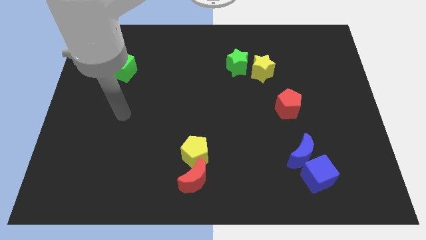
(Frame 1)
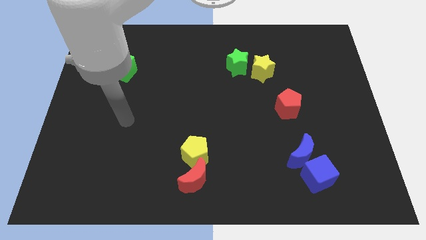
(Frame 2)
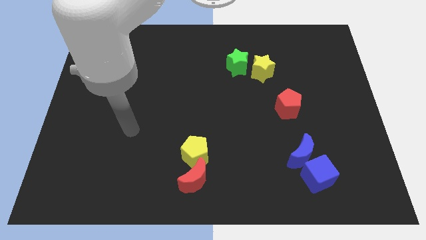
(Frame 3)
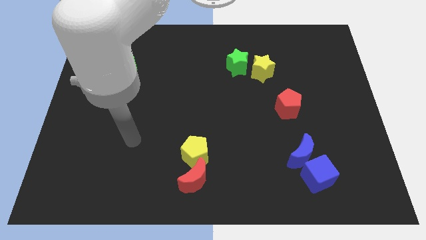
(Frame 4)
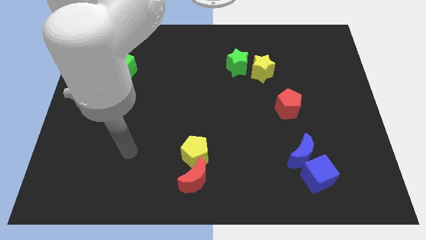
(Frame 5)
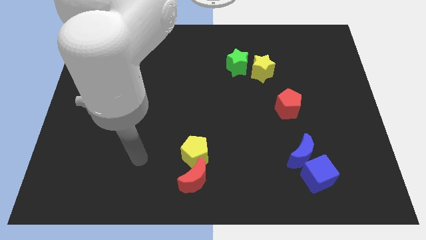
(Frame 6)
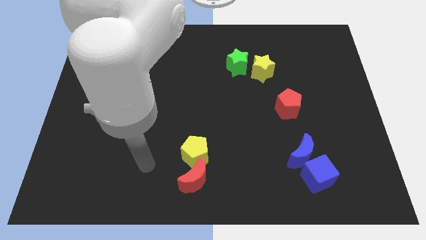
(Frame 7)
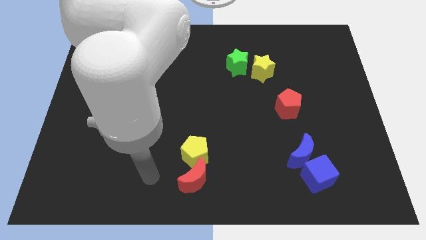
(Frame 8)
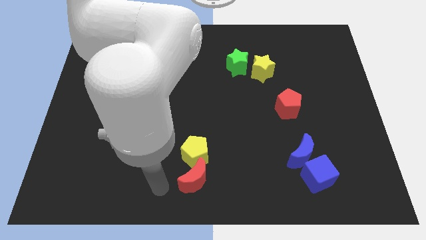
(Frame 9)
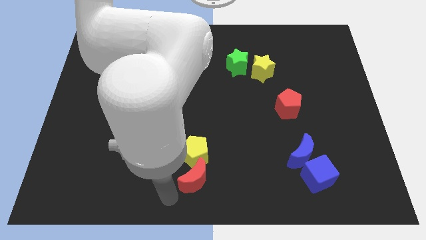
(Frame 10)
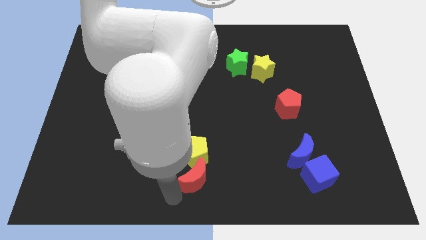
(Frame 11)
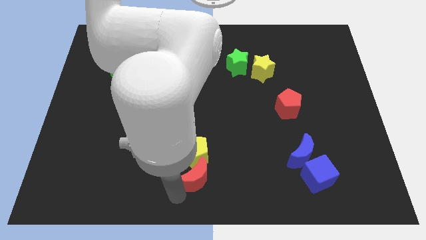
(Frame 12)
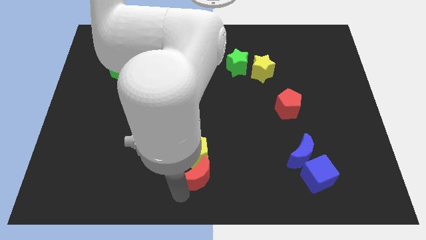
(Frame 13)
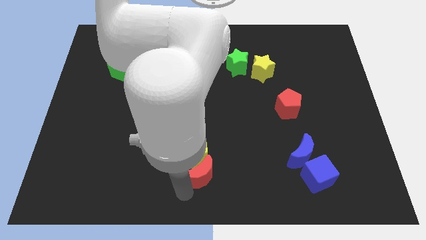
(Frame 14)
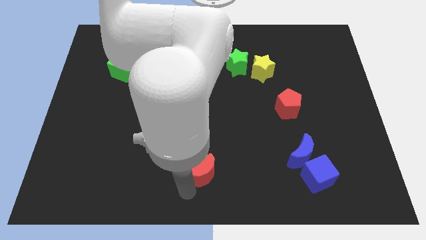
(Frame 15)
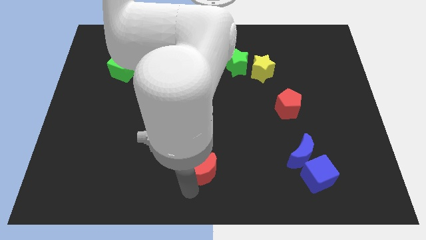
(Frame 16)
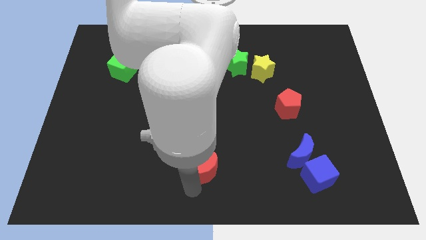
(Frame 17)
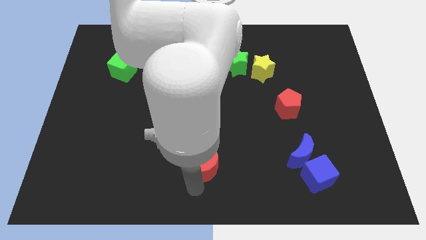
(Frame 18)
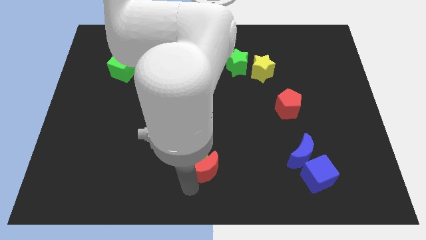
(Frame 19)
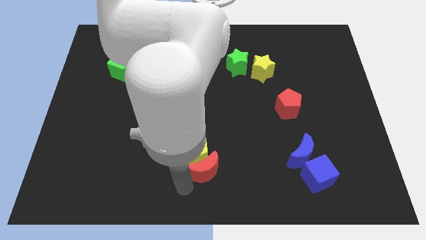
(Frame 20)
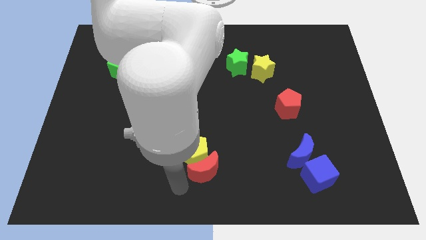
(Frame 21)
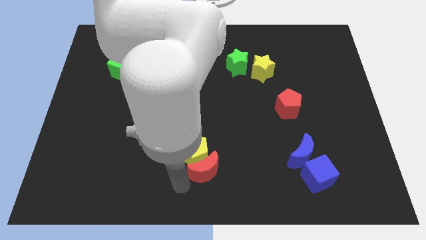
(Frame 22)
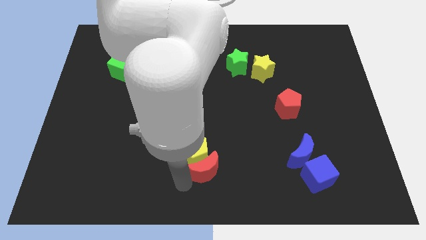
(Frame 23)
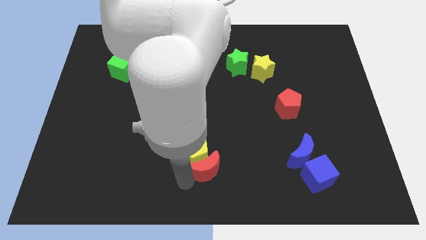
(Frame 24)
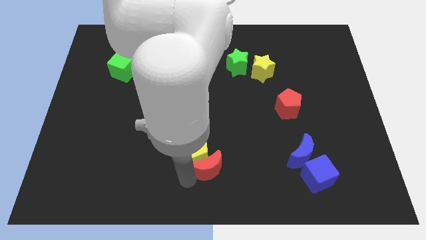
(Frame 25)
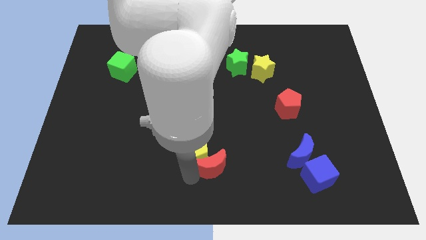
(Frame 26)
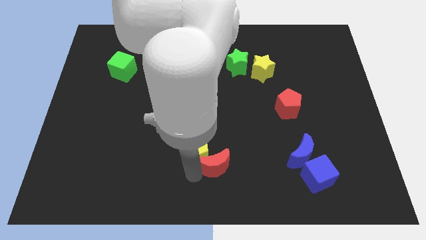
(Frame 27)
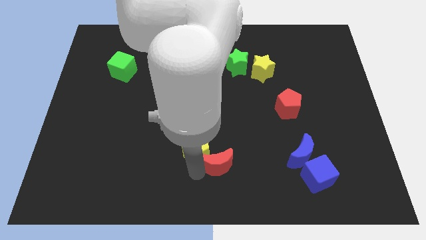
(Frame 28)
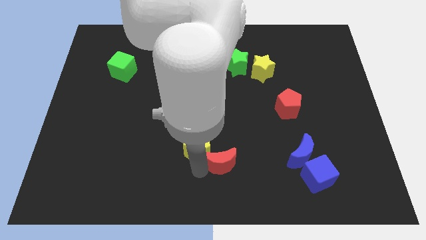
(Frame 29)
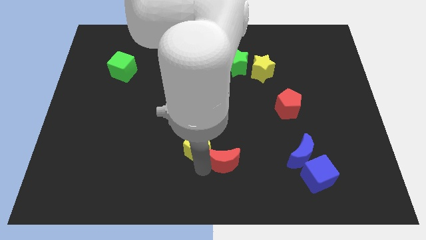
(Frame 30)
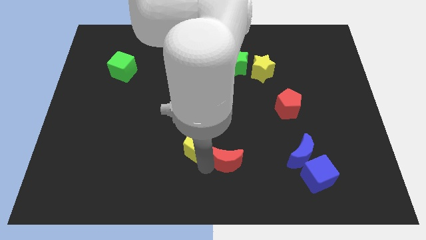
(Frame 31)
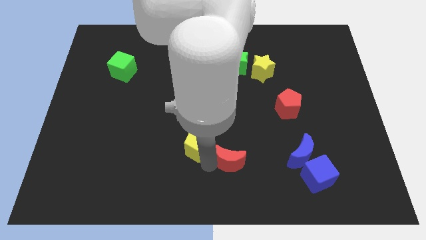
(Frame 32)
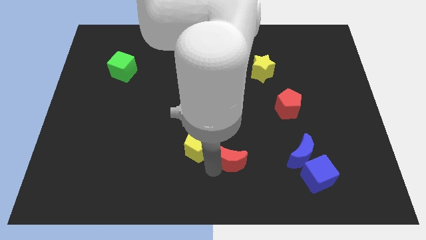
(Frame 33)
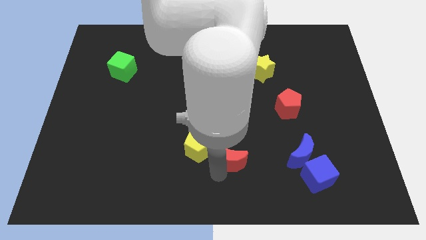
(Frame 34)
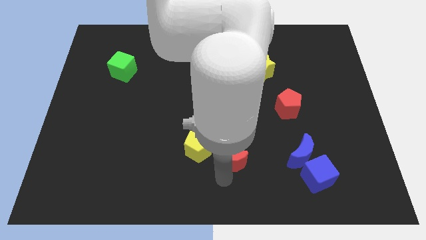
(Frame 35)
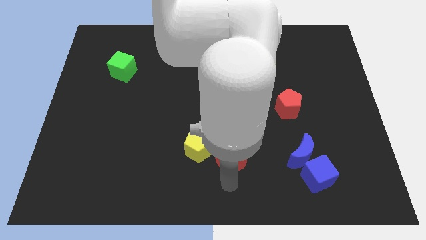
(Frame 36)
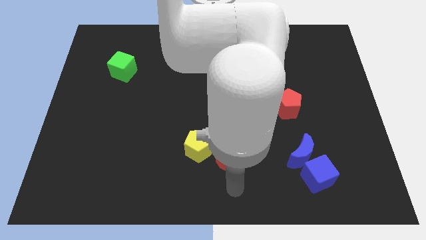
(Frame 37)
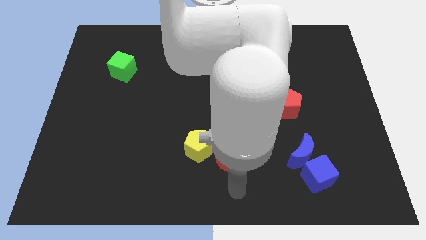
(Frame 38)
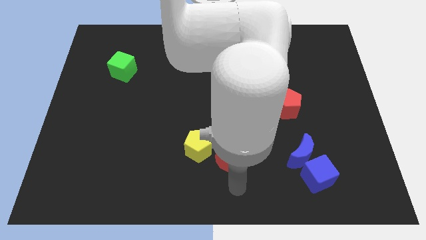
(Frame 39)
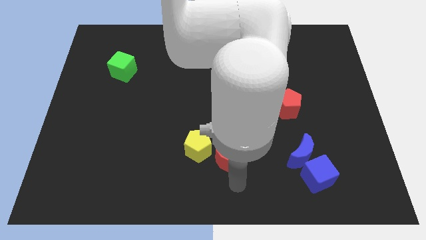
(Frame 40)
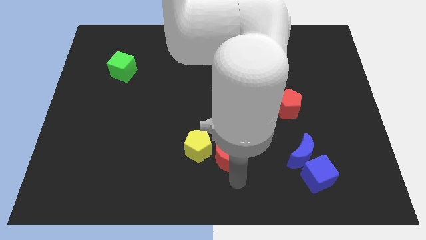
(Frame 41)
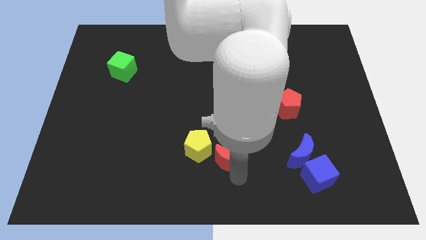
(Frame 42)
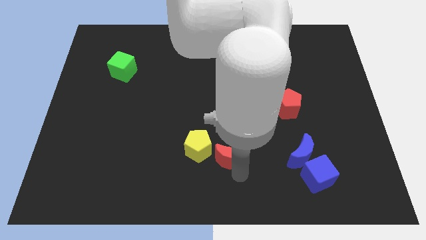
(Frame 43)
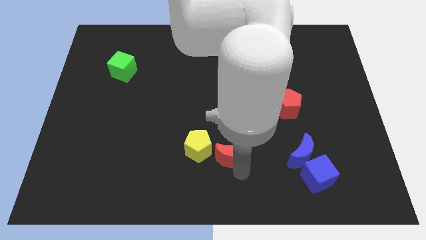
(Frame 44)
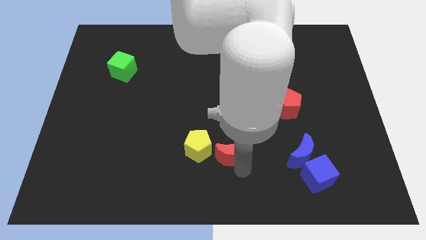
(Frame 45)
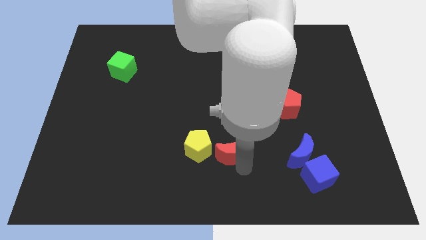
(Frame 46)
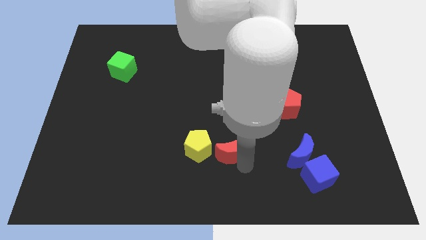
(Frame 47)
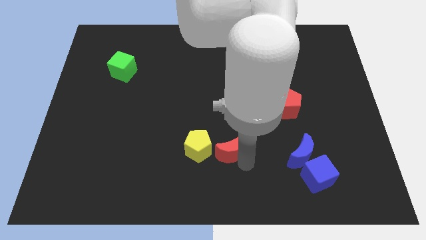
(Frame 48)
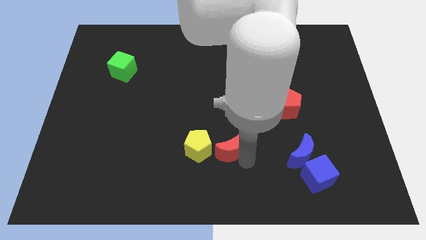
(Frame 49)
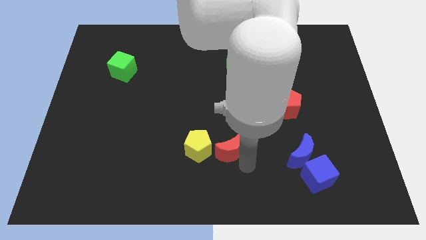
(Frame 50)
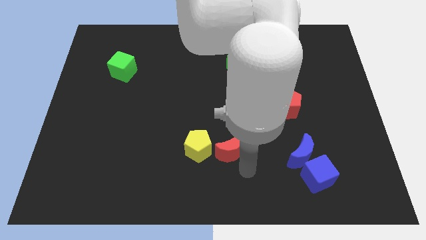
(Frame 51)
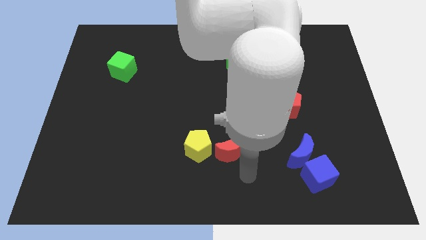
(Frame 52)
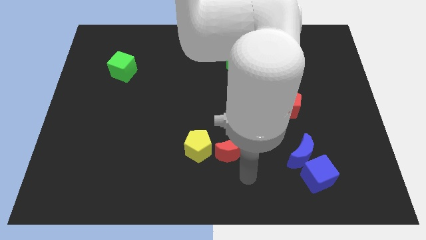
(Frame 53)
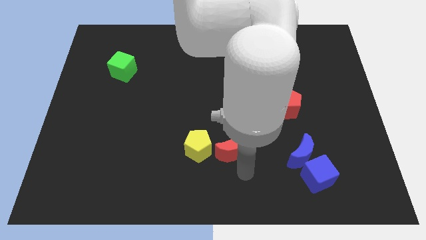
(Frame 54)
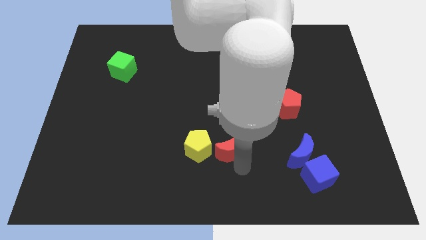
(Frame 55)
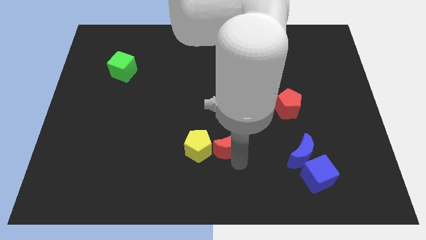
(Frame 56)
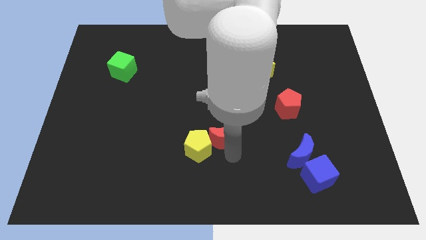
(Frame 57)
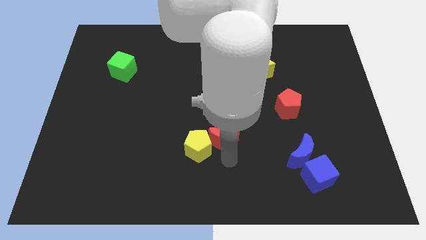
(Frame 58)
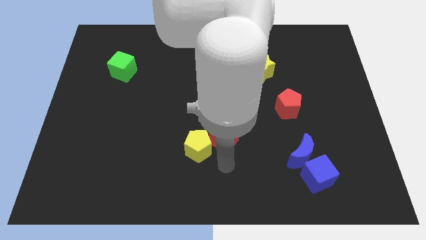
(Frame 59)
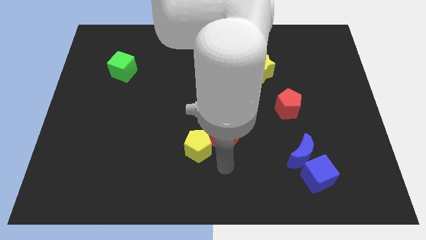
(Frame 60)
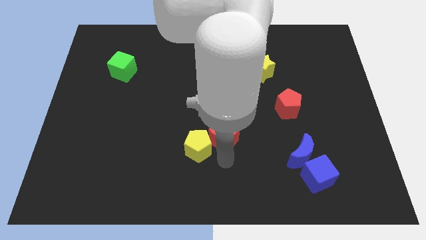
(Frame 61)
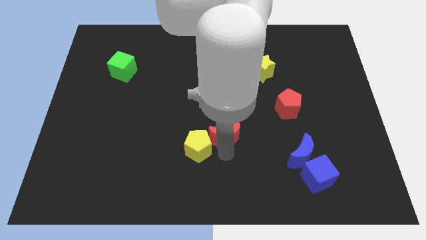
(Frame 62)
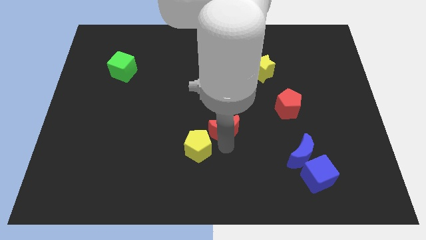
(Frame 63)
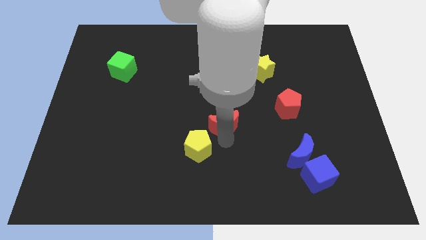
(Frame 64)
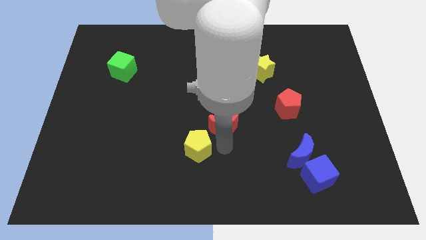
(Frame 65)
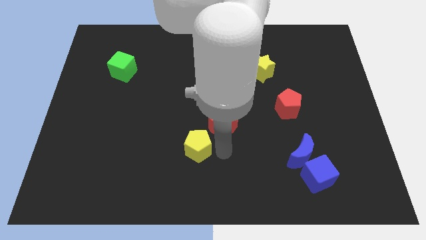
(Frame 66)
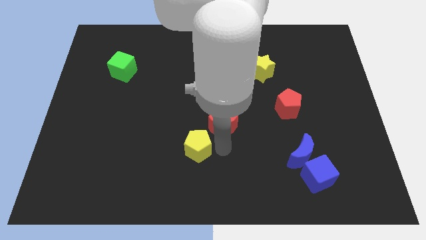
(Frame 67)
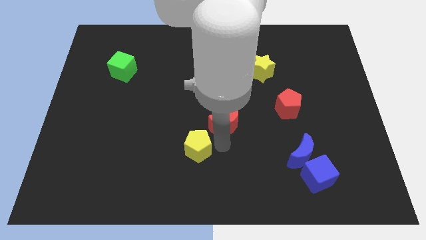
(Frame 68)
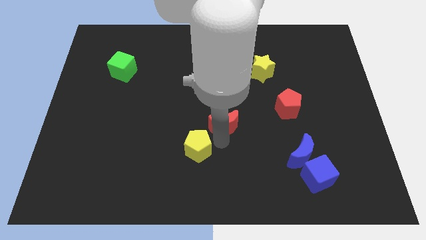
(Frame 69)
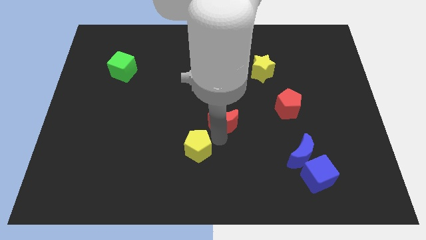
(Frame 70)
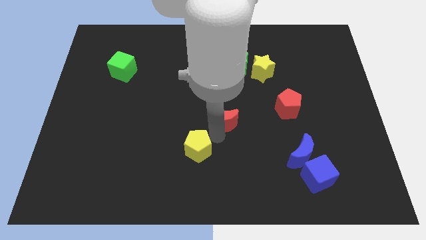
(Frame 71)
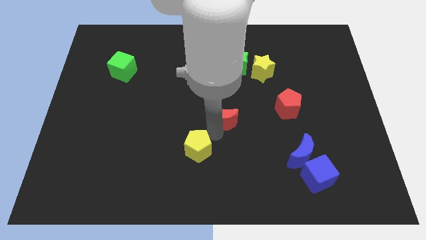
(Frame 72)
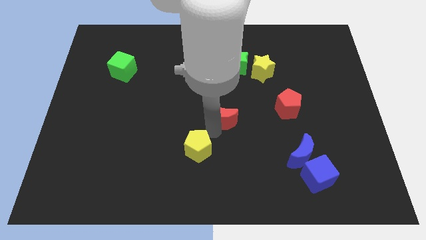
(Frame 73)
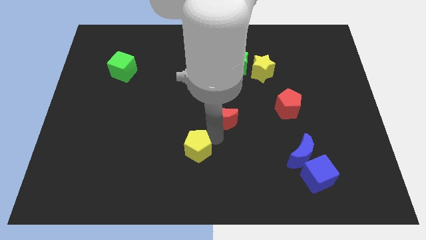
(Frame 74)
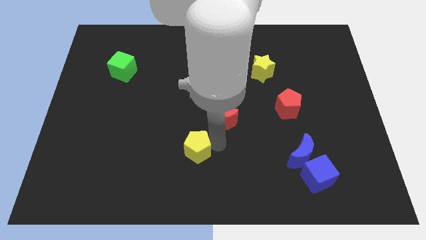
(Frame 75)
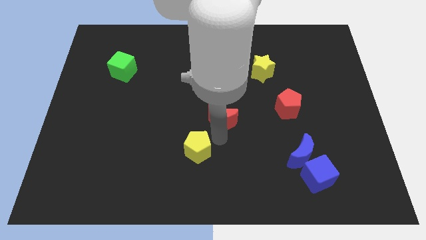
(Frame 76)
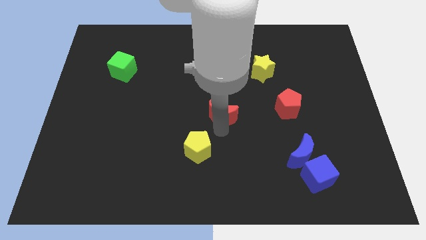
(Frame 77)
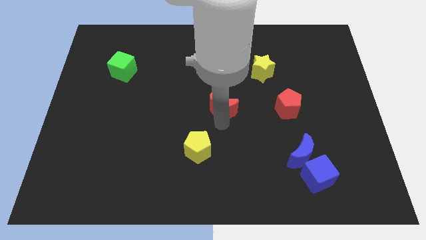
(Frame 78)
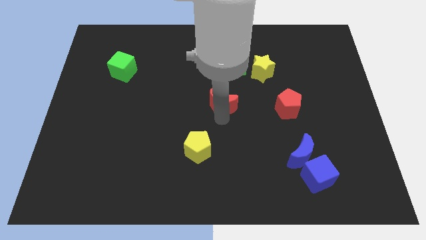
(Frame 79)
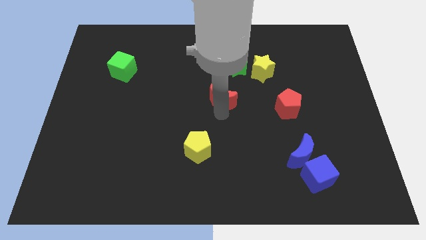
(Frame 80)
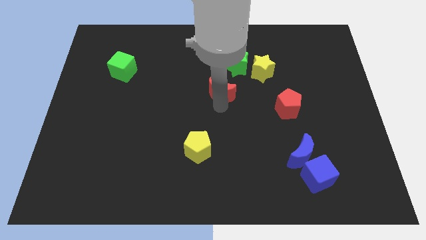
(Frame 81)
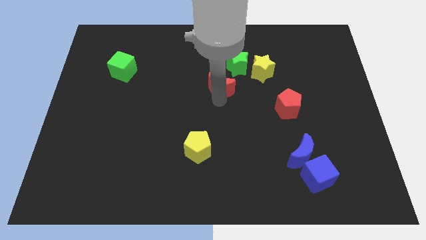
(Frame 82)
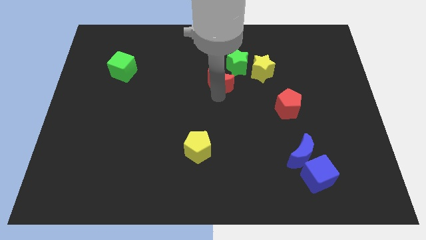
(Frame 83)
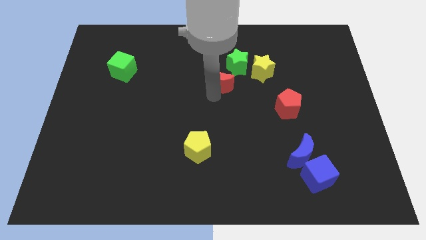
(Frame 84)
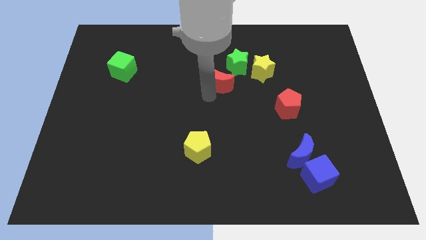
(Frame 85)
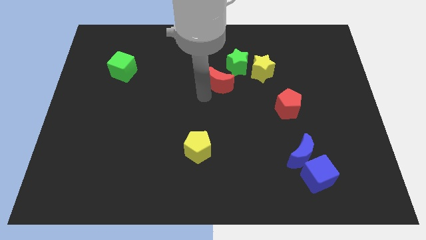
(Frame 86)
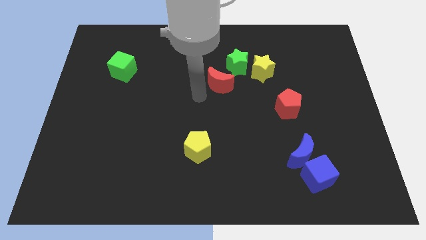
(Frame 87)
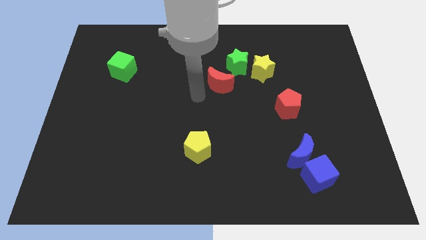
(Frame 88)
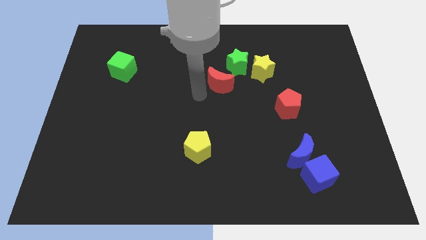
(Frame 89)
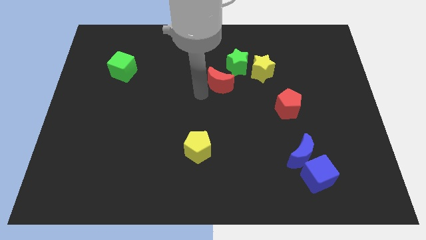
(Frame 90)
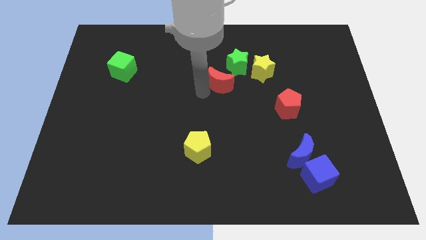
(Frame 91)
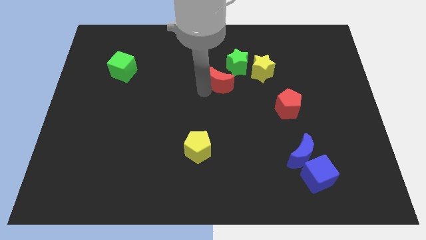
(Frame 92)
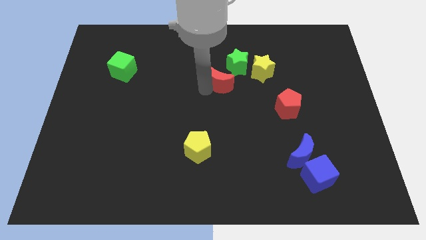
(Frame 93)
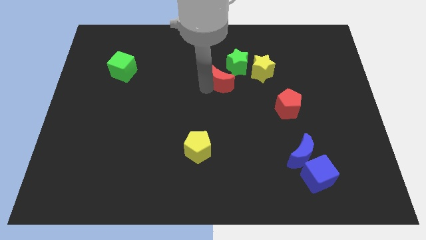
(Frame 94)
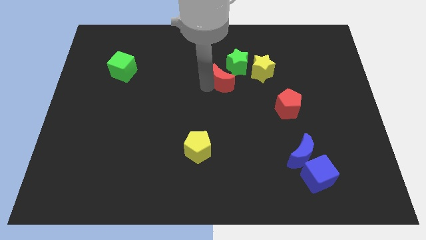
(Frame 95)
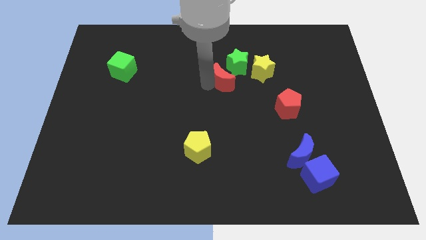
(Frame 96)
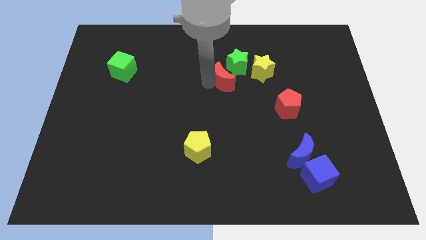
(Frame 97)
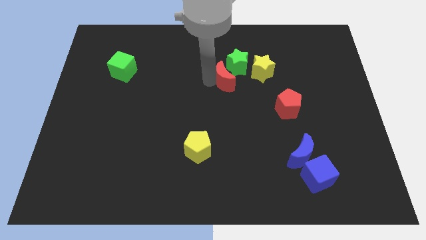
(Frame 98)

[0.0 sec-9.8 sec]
slide the red moon close to the green star
